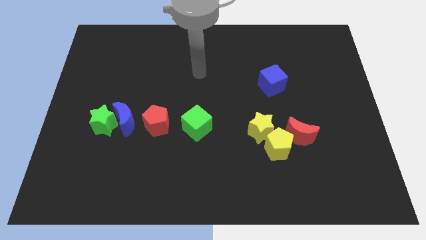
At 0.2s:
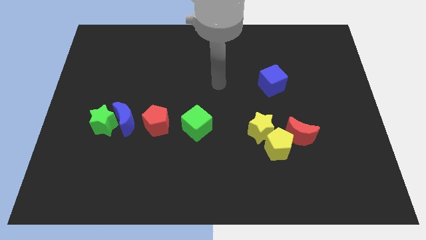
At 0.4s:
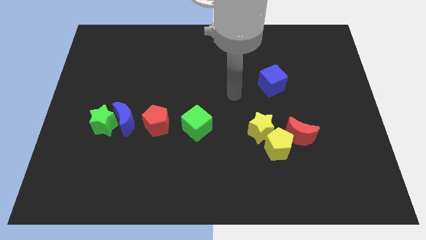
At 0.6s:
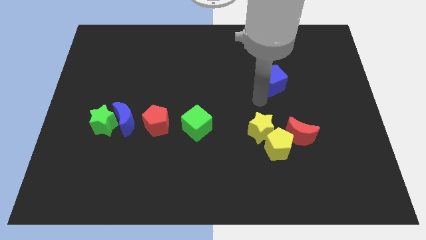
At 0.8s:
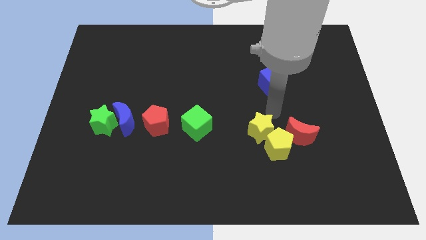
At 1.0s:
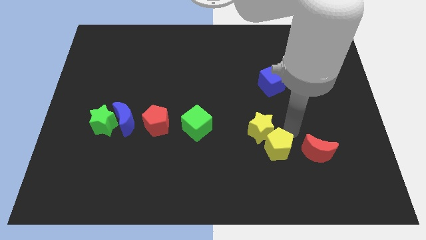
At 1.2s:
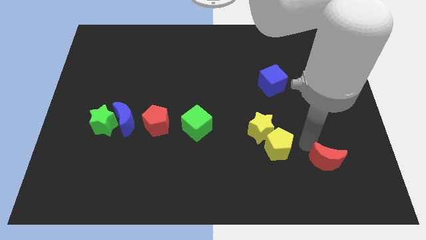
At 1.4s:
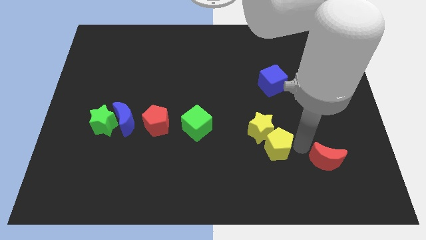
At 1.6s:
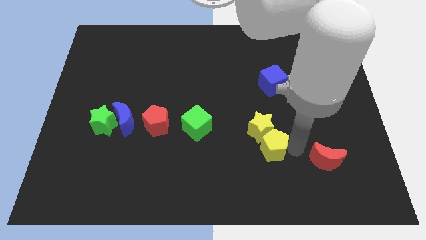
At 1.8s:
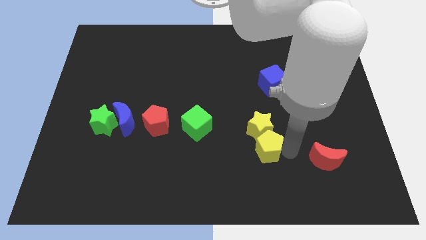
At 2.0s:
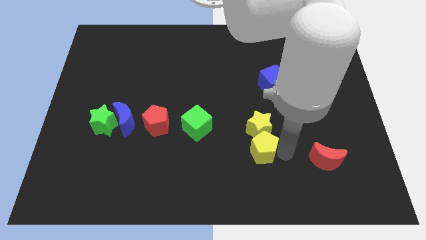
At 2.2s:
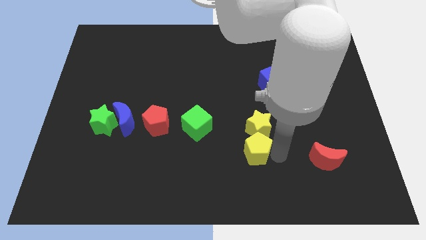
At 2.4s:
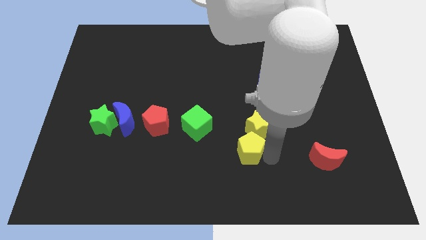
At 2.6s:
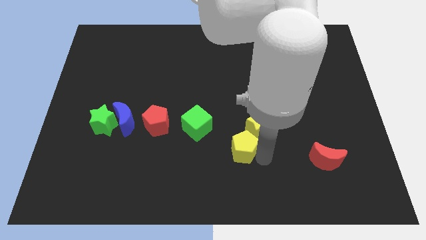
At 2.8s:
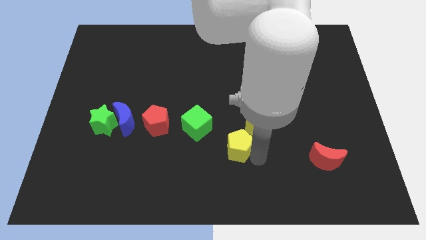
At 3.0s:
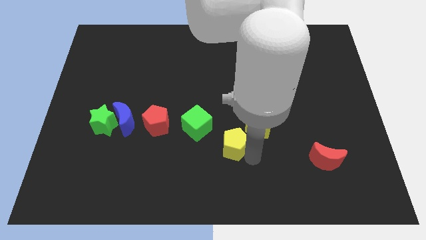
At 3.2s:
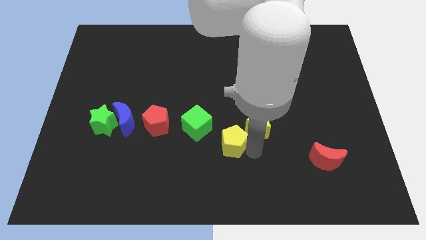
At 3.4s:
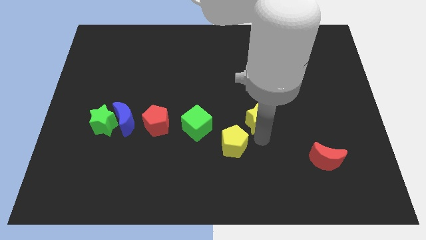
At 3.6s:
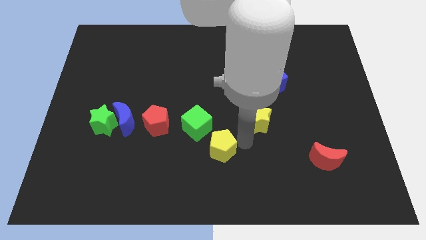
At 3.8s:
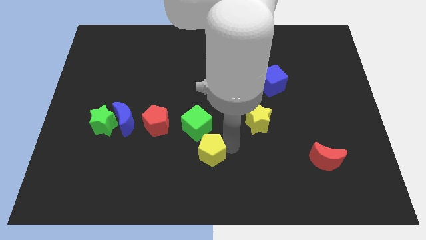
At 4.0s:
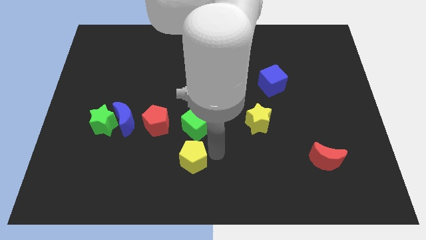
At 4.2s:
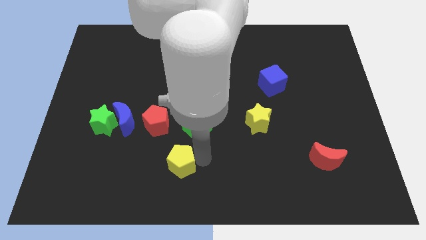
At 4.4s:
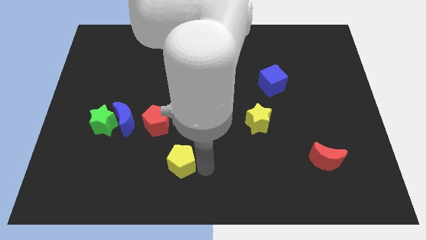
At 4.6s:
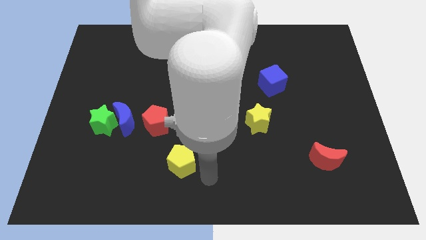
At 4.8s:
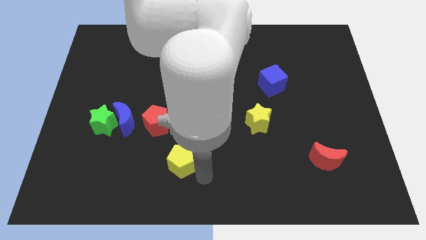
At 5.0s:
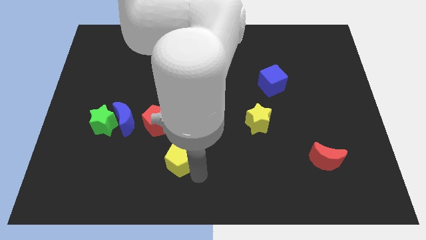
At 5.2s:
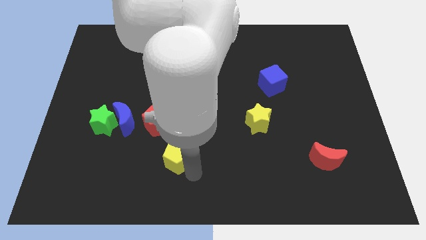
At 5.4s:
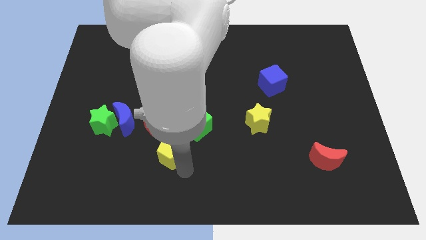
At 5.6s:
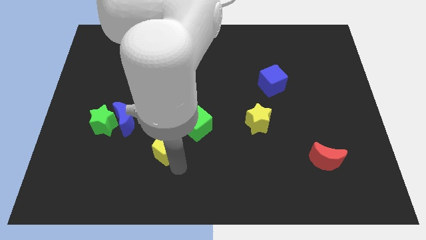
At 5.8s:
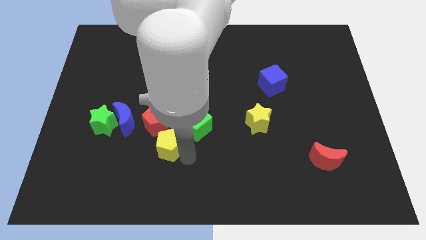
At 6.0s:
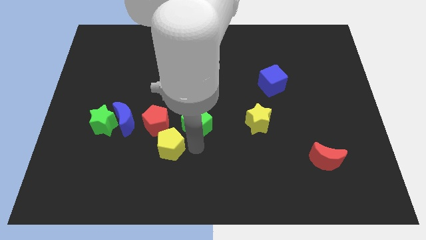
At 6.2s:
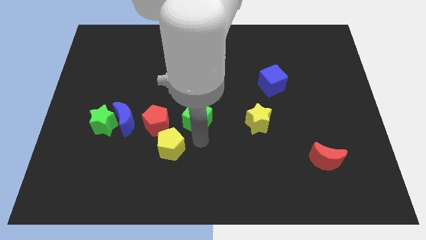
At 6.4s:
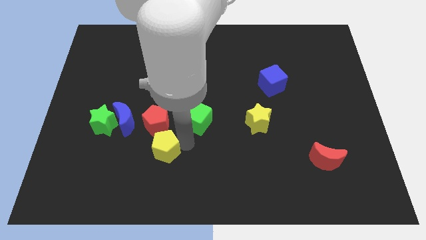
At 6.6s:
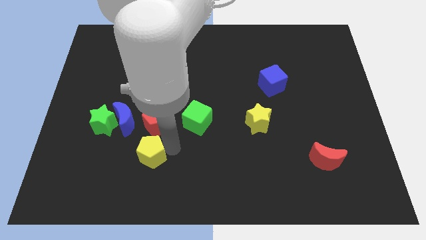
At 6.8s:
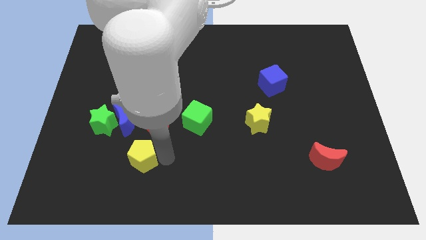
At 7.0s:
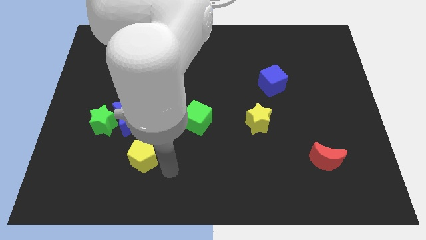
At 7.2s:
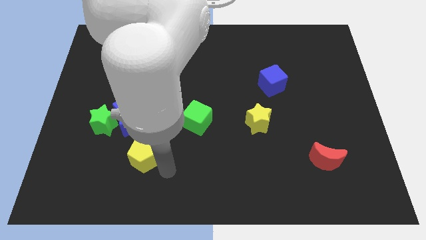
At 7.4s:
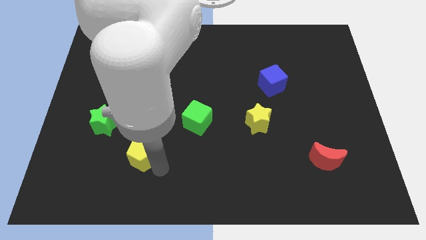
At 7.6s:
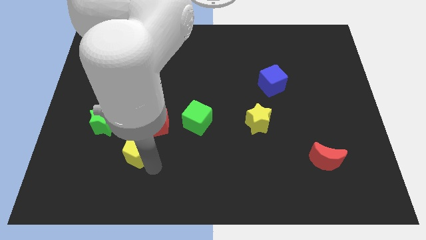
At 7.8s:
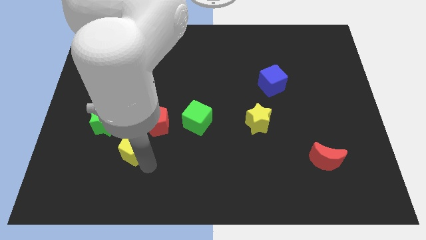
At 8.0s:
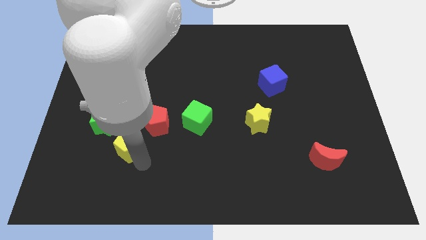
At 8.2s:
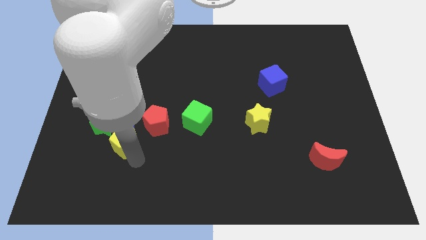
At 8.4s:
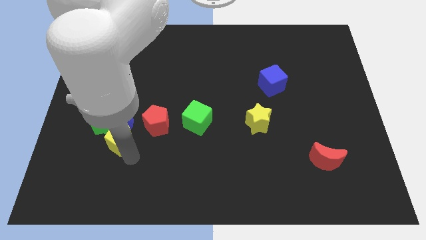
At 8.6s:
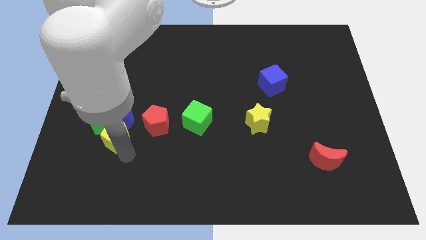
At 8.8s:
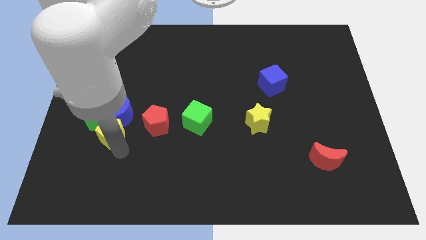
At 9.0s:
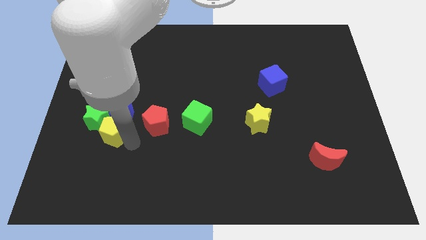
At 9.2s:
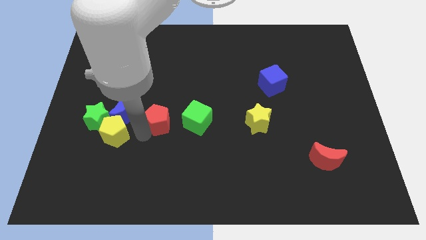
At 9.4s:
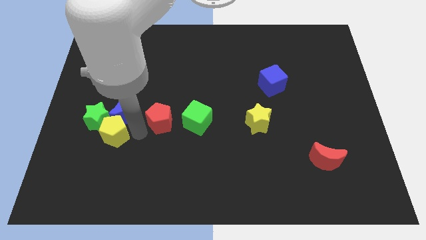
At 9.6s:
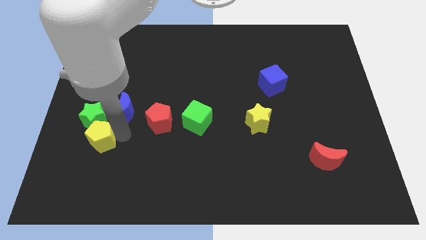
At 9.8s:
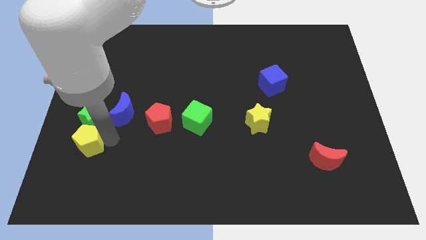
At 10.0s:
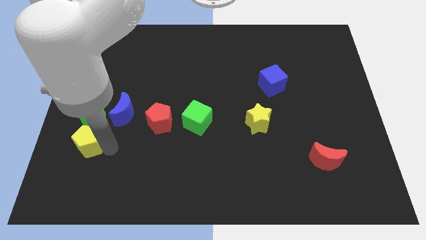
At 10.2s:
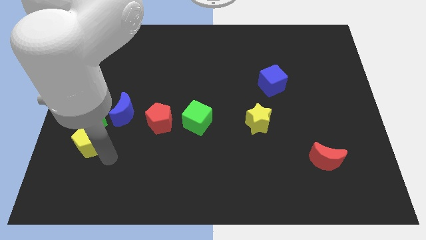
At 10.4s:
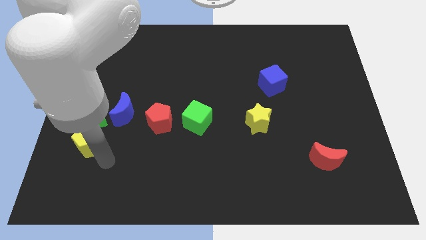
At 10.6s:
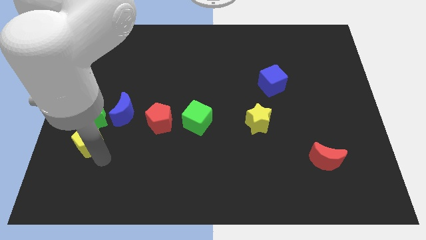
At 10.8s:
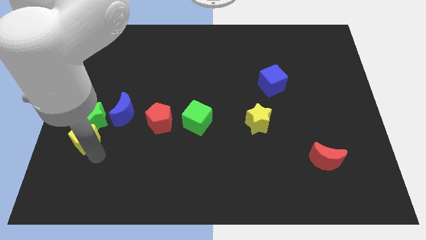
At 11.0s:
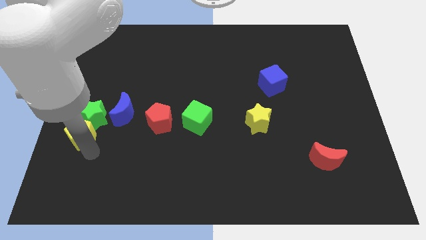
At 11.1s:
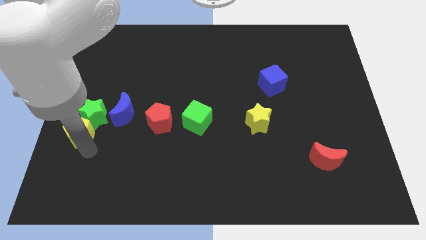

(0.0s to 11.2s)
push the yellow pentagon to the center left

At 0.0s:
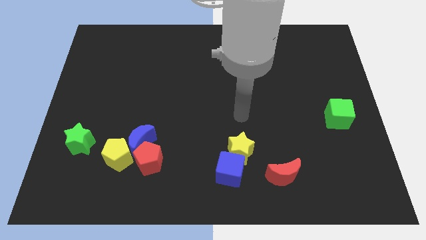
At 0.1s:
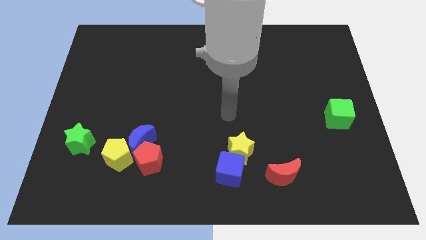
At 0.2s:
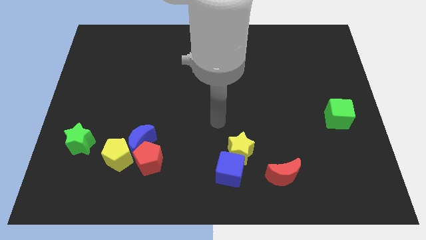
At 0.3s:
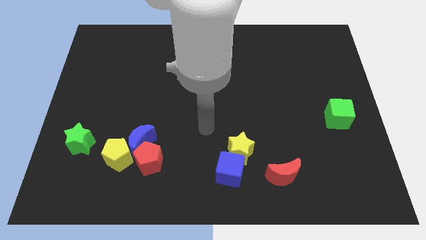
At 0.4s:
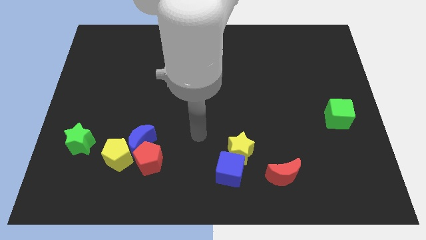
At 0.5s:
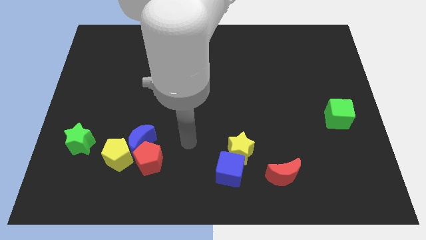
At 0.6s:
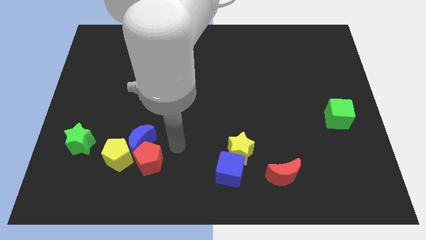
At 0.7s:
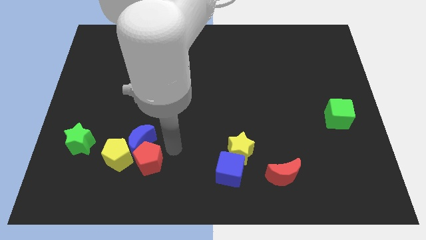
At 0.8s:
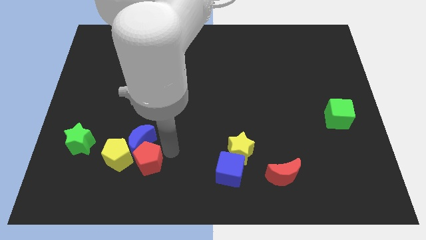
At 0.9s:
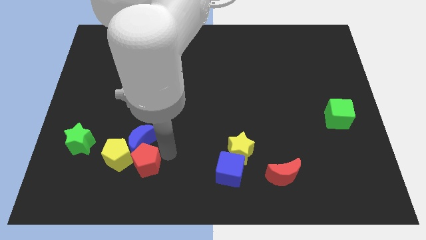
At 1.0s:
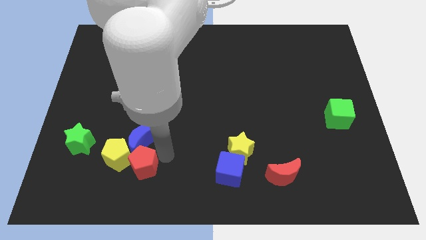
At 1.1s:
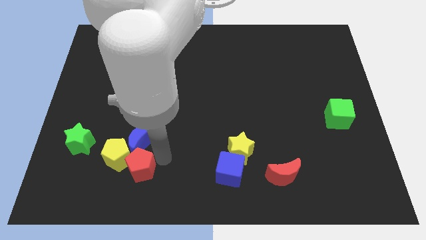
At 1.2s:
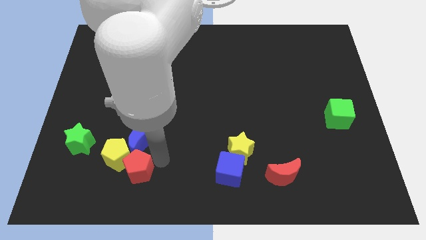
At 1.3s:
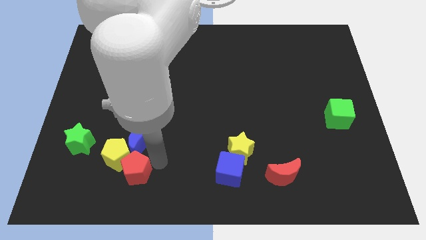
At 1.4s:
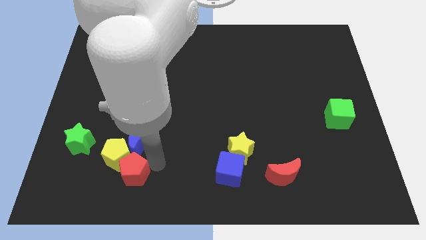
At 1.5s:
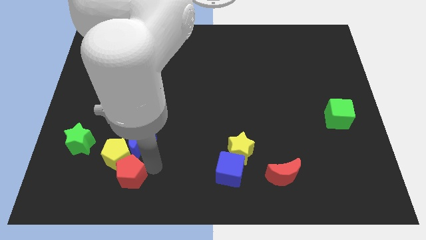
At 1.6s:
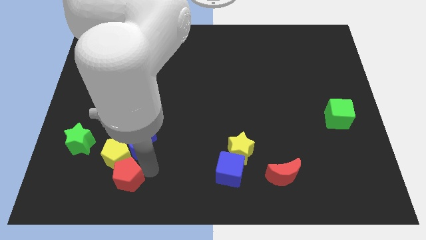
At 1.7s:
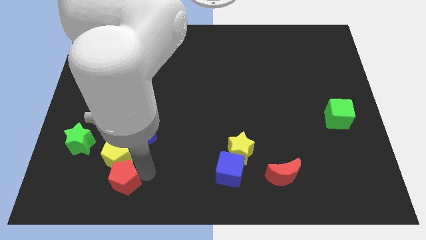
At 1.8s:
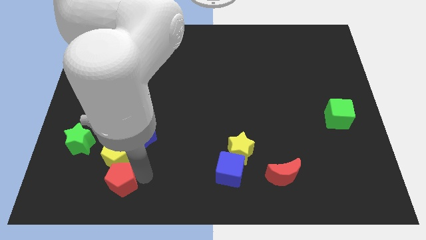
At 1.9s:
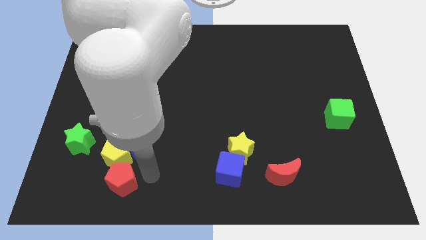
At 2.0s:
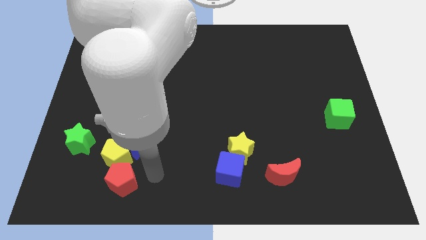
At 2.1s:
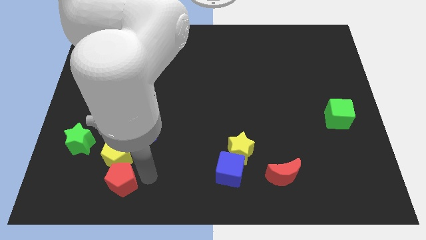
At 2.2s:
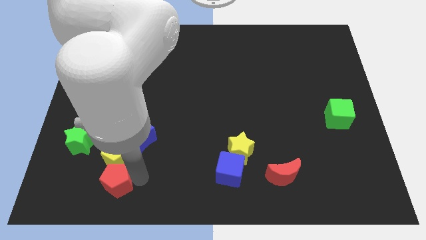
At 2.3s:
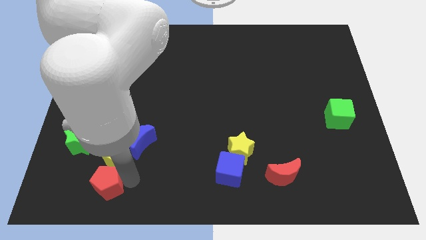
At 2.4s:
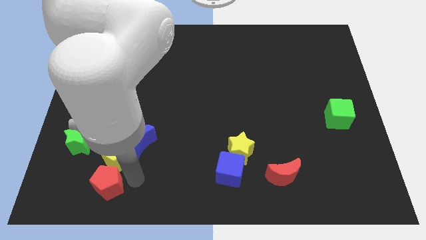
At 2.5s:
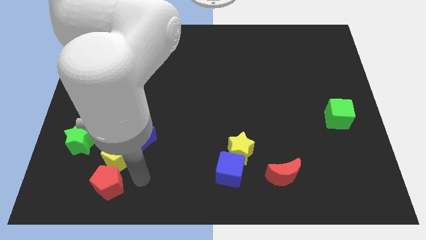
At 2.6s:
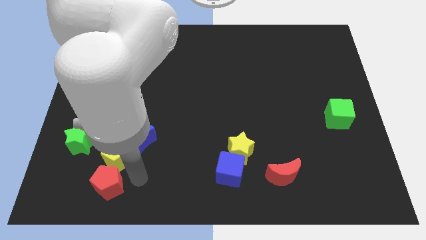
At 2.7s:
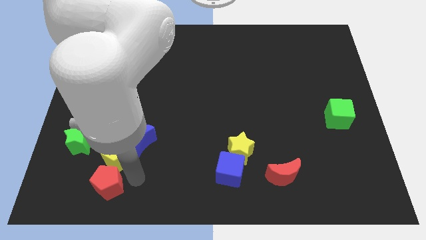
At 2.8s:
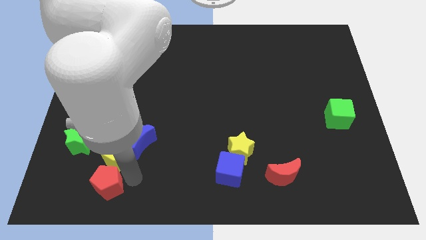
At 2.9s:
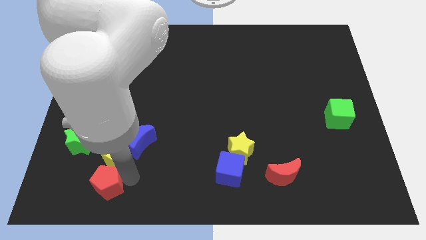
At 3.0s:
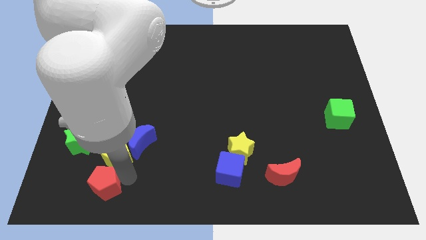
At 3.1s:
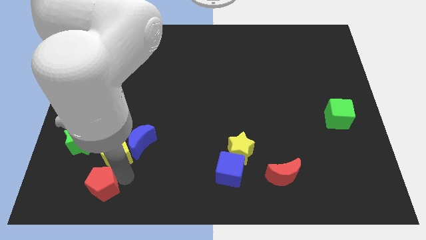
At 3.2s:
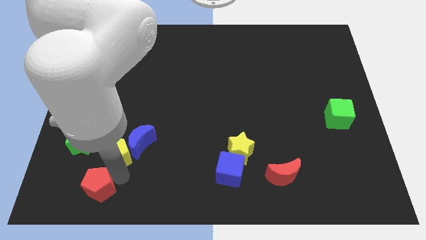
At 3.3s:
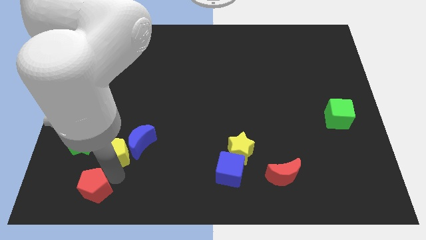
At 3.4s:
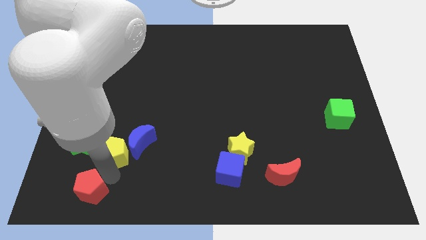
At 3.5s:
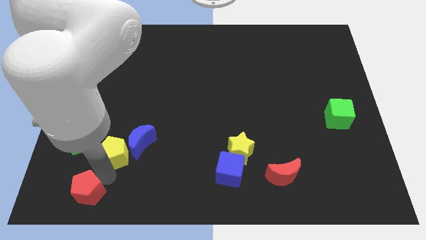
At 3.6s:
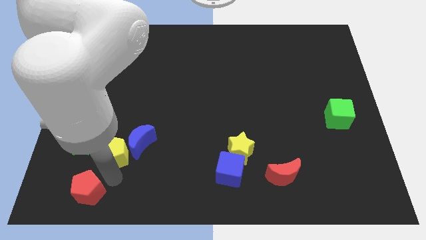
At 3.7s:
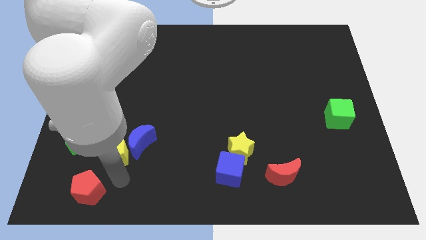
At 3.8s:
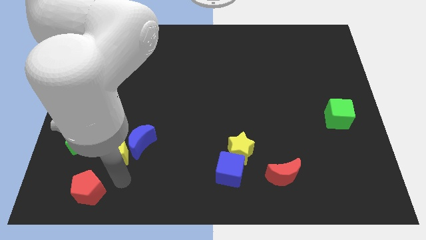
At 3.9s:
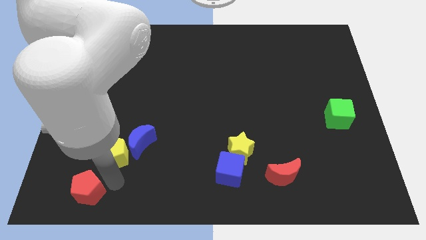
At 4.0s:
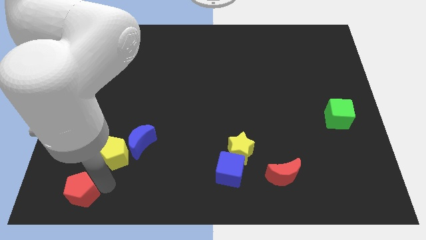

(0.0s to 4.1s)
push the red pentagon to the bottom left of the board
